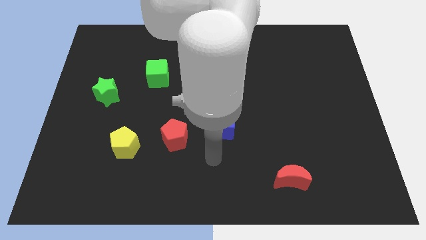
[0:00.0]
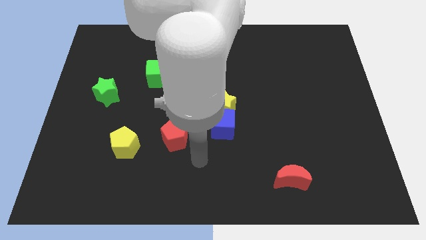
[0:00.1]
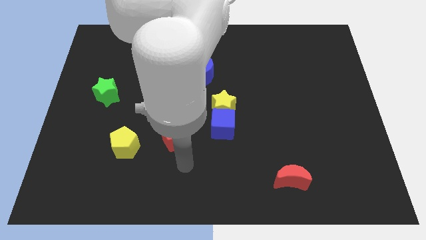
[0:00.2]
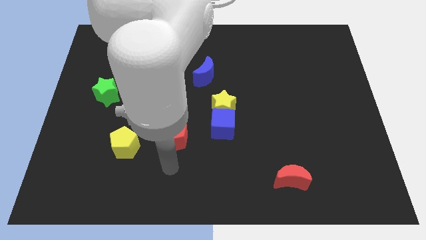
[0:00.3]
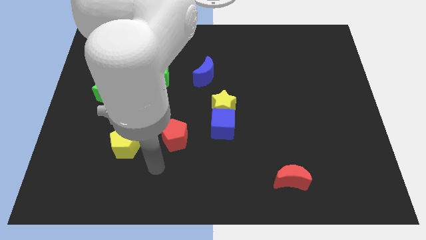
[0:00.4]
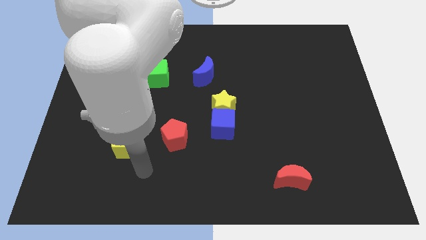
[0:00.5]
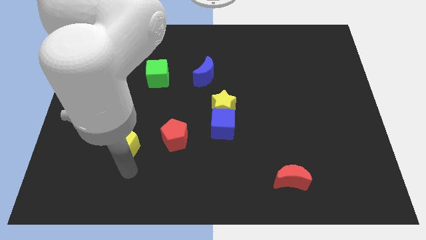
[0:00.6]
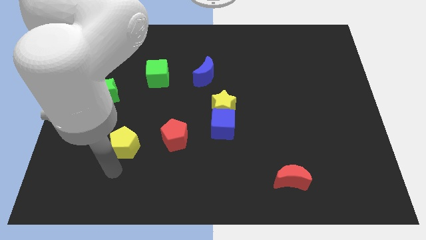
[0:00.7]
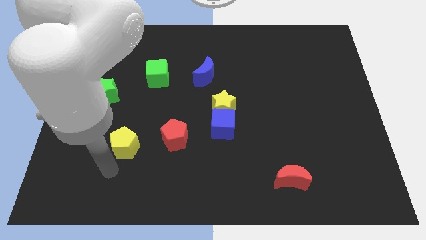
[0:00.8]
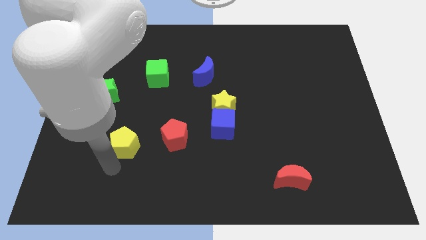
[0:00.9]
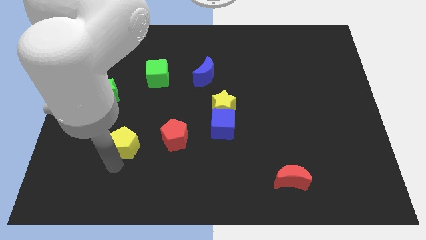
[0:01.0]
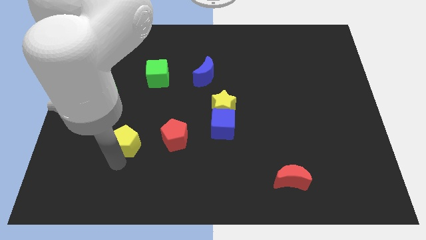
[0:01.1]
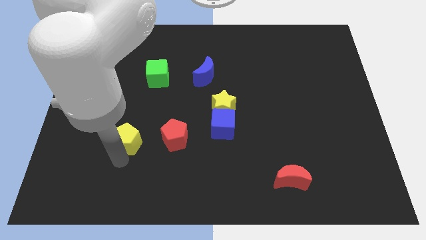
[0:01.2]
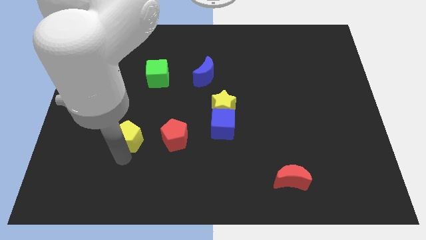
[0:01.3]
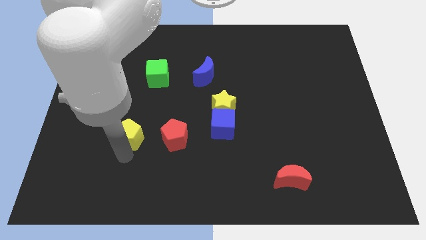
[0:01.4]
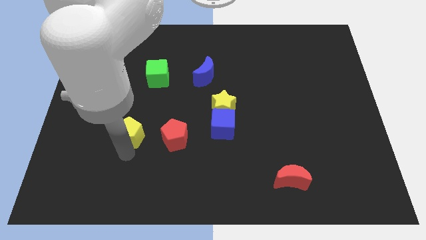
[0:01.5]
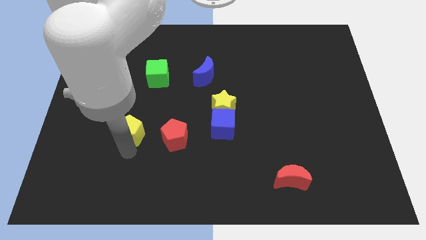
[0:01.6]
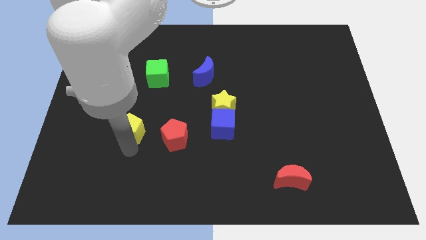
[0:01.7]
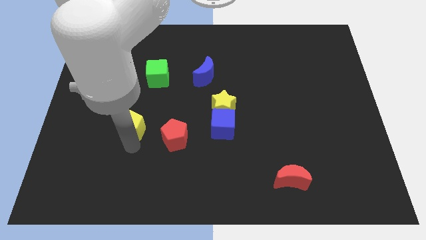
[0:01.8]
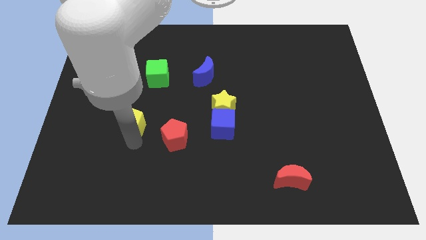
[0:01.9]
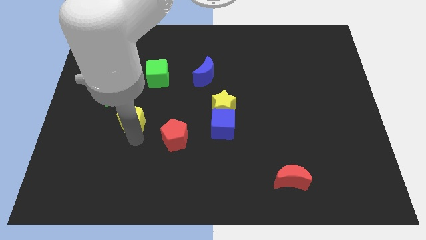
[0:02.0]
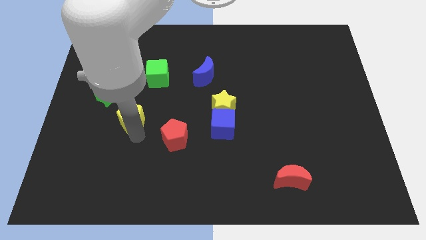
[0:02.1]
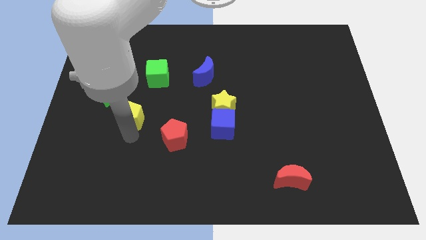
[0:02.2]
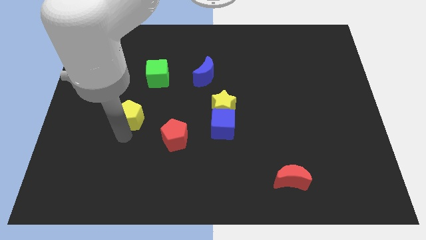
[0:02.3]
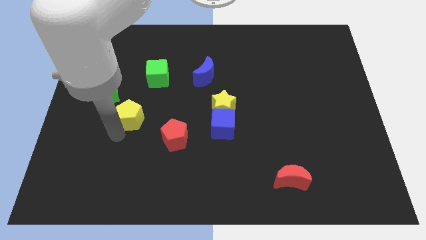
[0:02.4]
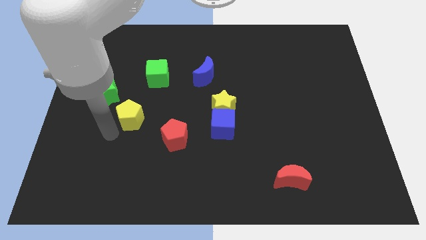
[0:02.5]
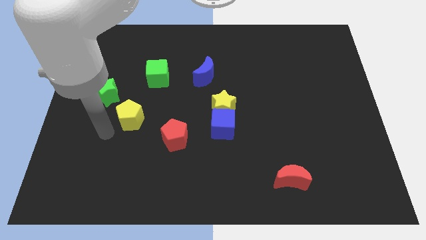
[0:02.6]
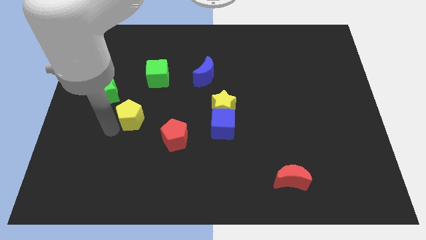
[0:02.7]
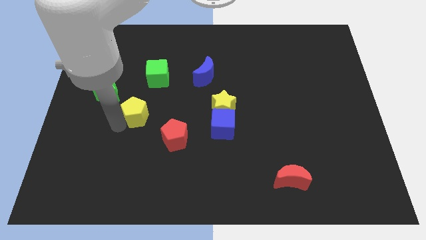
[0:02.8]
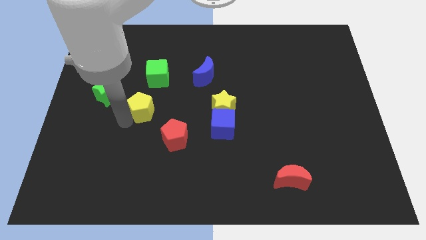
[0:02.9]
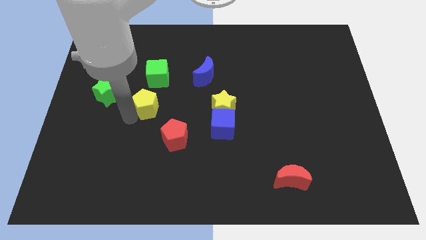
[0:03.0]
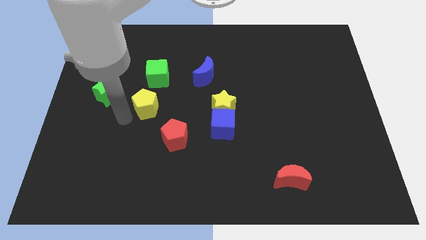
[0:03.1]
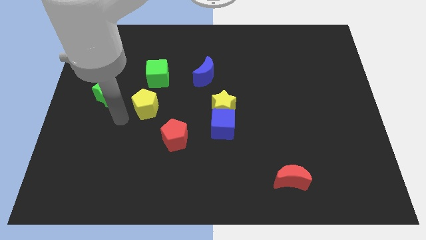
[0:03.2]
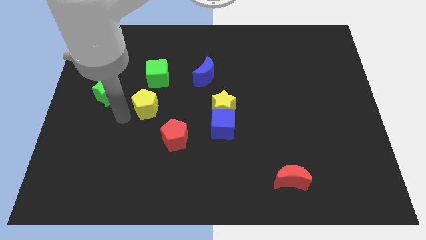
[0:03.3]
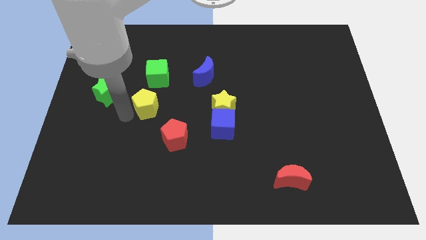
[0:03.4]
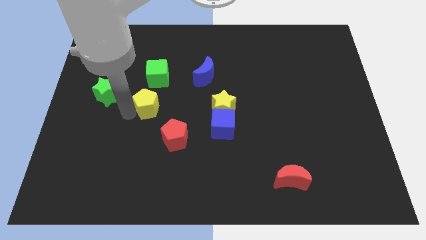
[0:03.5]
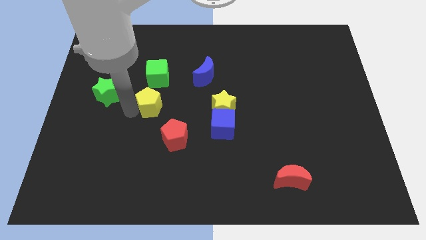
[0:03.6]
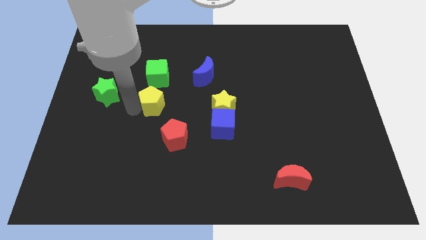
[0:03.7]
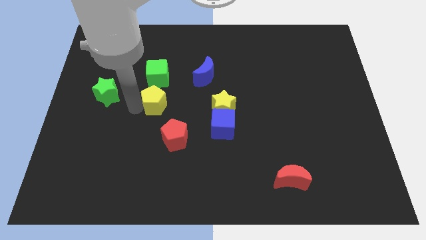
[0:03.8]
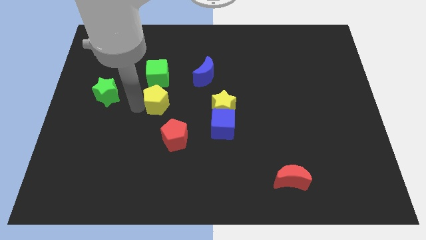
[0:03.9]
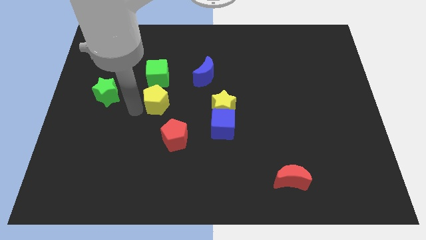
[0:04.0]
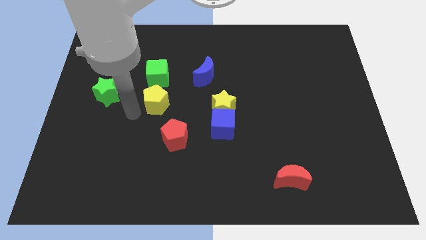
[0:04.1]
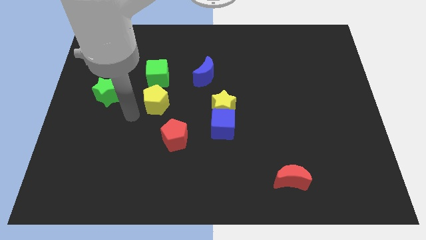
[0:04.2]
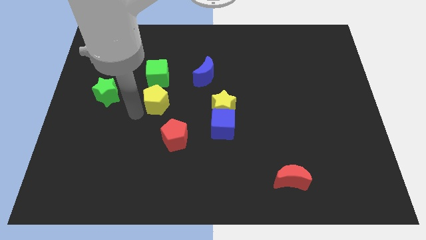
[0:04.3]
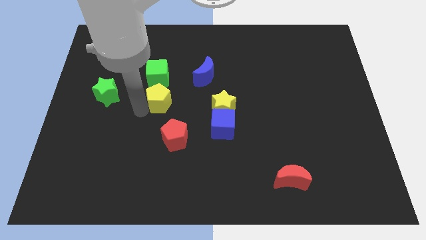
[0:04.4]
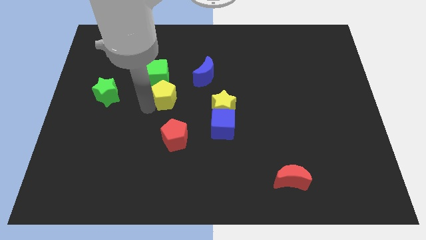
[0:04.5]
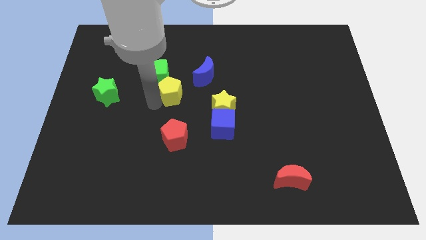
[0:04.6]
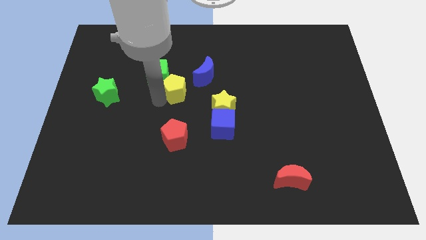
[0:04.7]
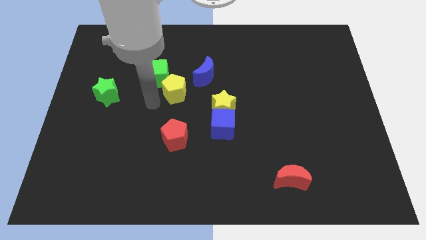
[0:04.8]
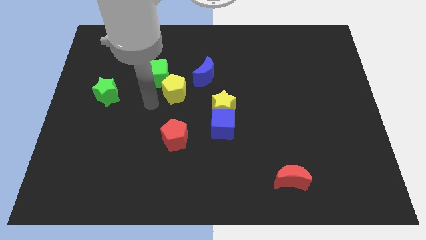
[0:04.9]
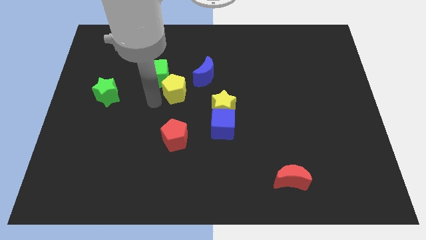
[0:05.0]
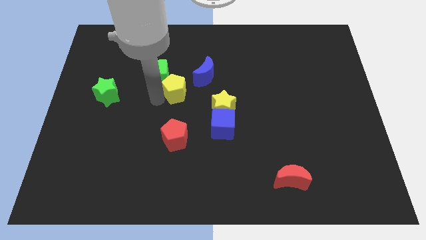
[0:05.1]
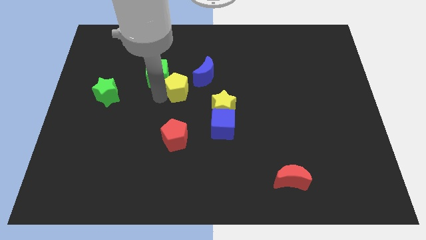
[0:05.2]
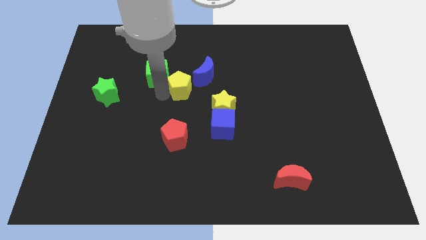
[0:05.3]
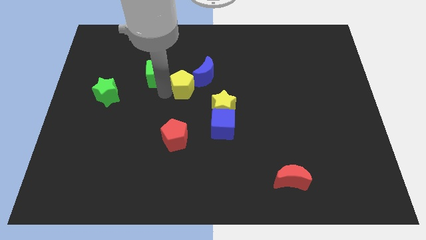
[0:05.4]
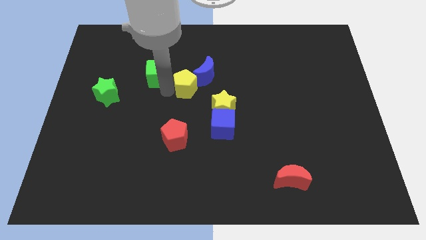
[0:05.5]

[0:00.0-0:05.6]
slide the yellow pentagon close to the blue moon

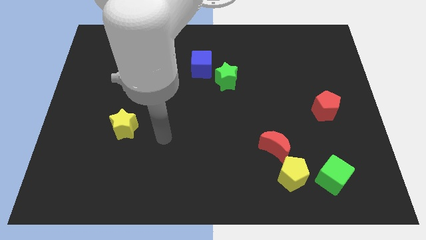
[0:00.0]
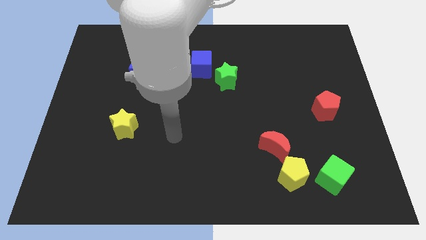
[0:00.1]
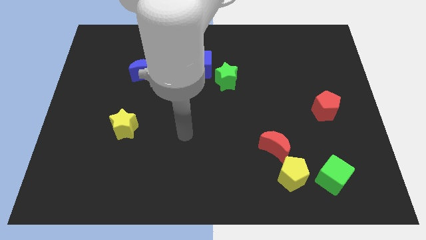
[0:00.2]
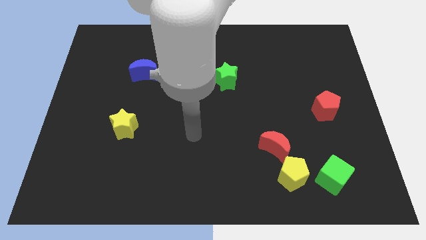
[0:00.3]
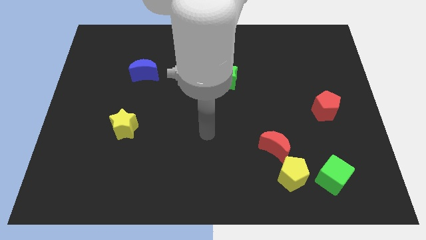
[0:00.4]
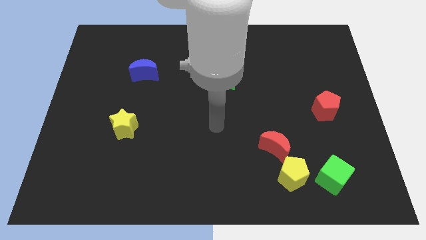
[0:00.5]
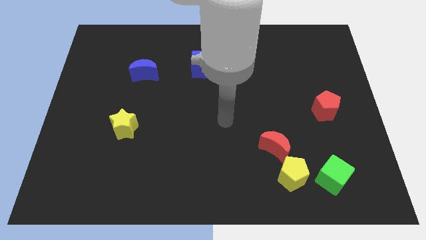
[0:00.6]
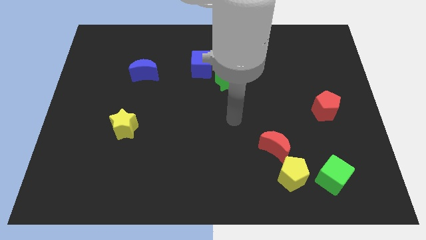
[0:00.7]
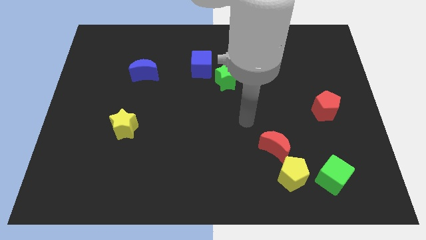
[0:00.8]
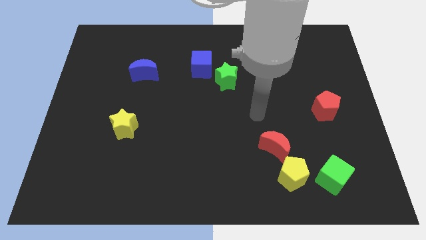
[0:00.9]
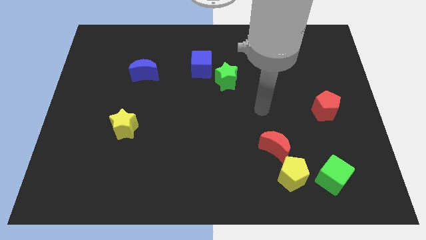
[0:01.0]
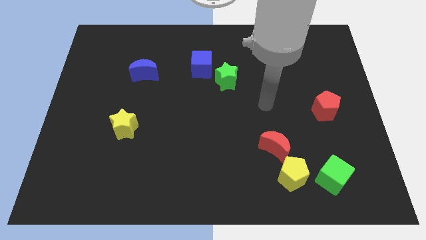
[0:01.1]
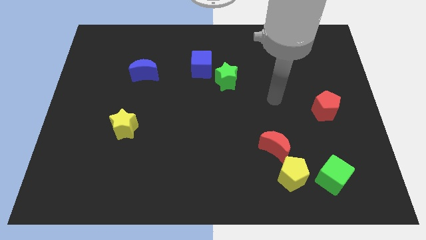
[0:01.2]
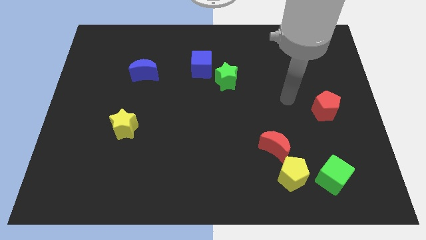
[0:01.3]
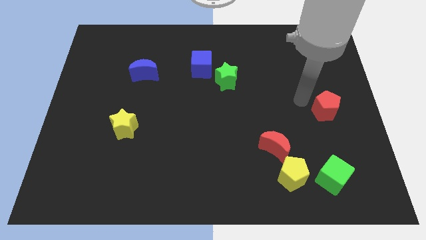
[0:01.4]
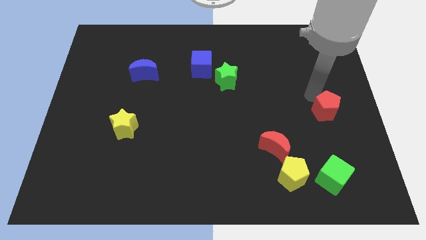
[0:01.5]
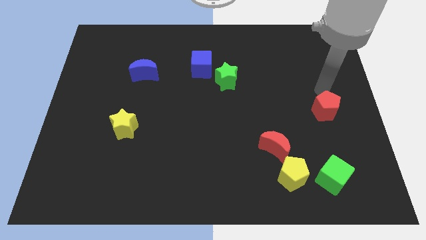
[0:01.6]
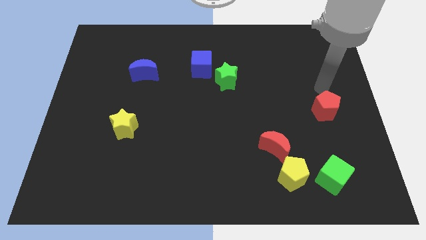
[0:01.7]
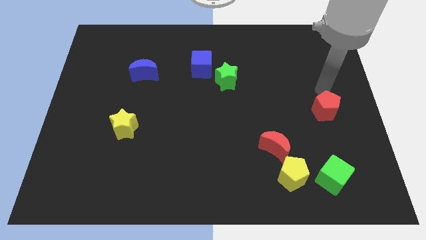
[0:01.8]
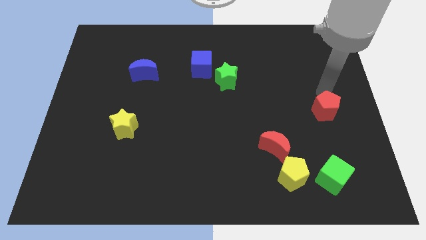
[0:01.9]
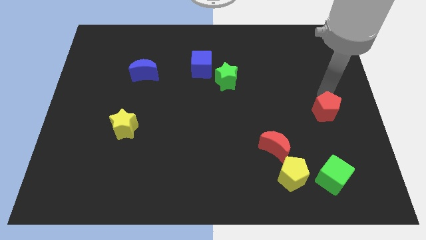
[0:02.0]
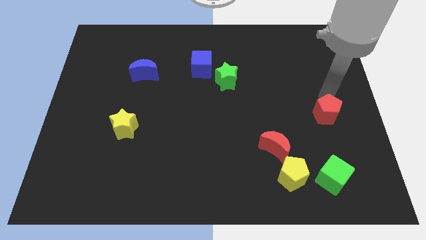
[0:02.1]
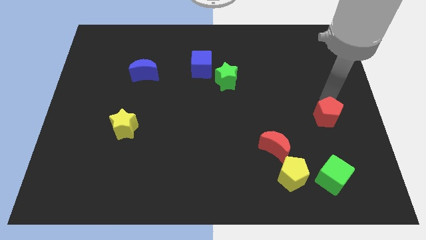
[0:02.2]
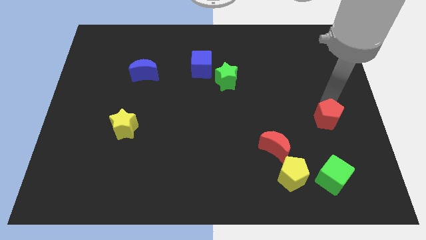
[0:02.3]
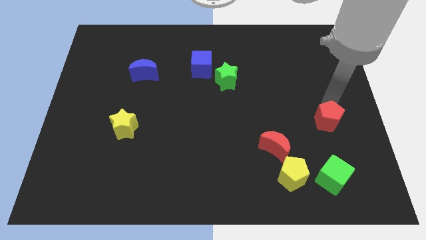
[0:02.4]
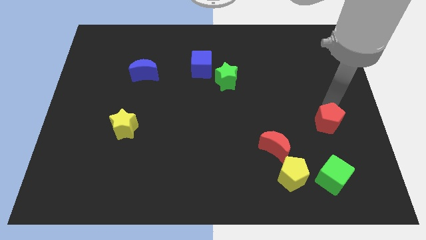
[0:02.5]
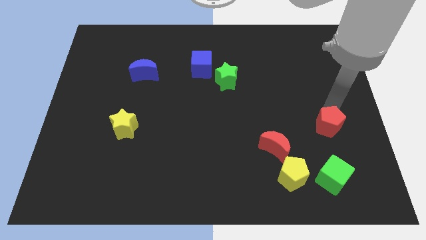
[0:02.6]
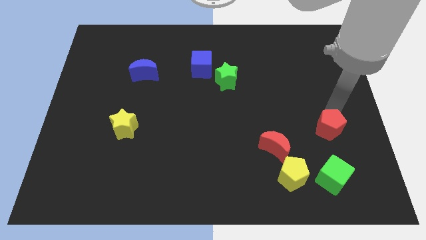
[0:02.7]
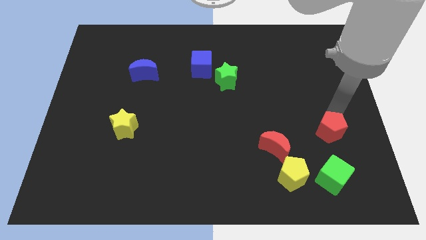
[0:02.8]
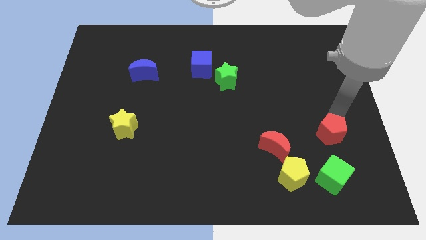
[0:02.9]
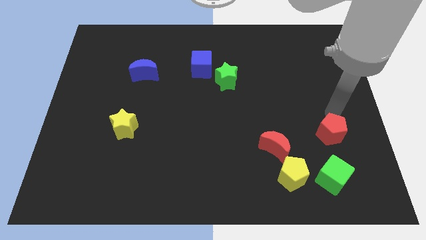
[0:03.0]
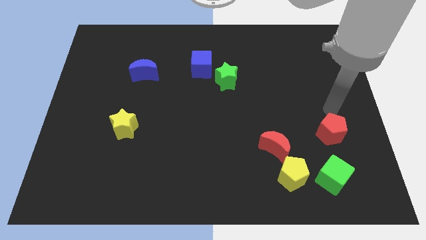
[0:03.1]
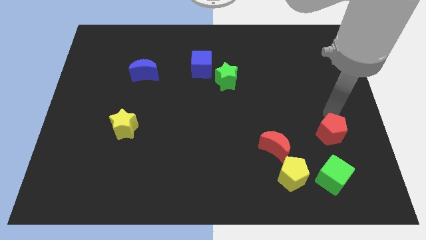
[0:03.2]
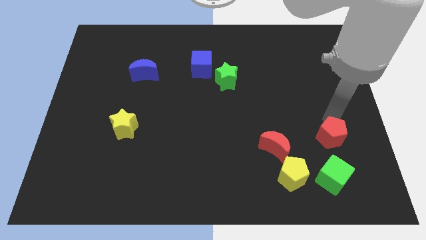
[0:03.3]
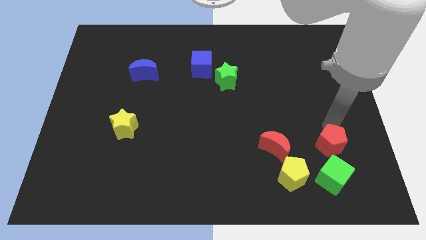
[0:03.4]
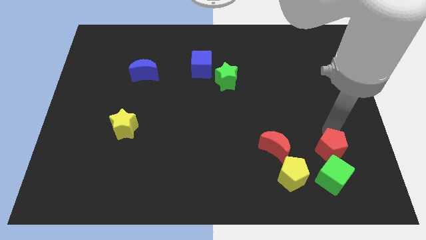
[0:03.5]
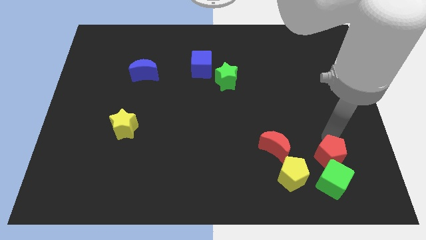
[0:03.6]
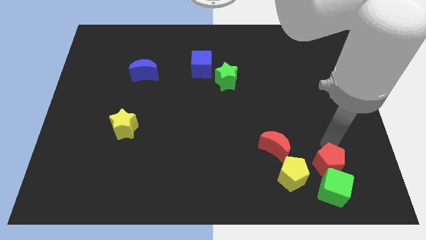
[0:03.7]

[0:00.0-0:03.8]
move the red pentagon to the green cube
